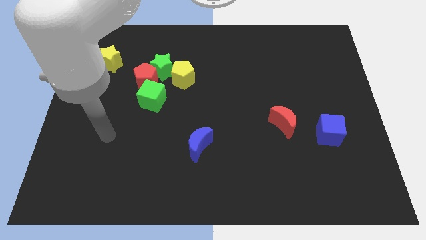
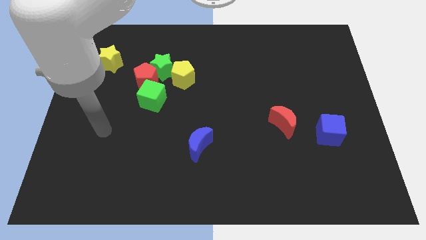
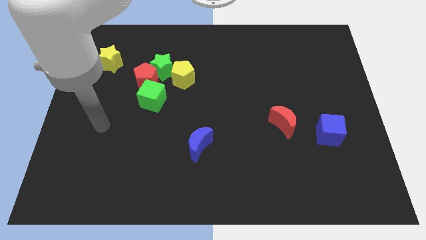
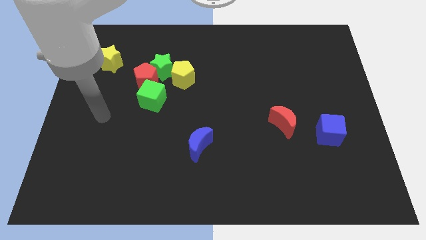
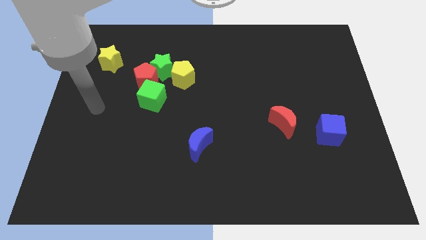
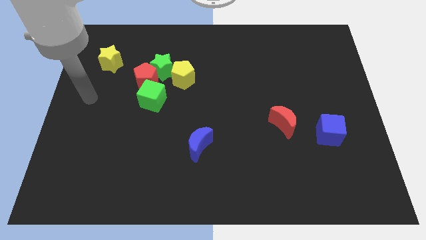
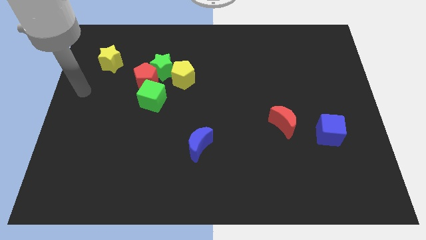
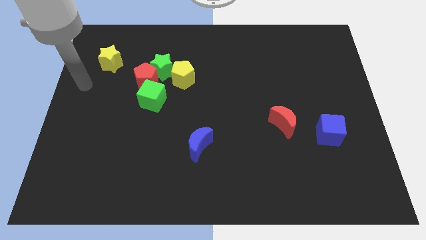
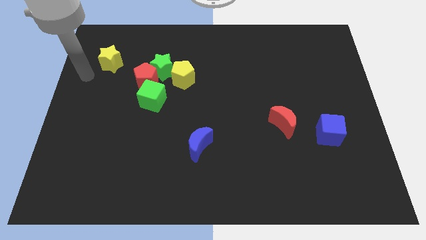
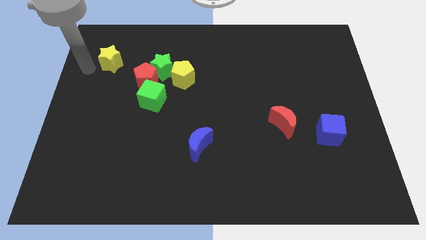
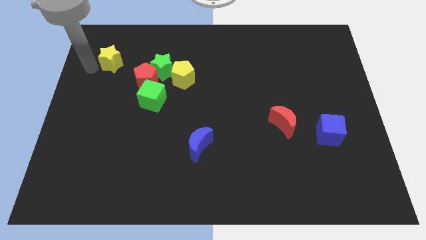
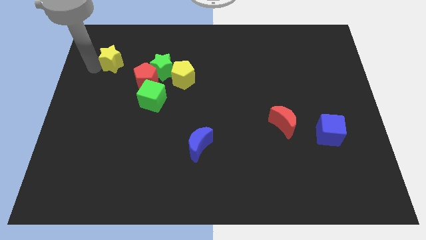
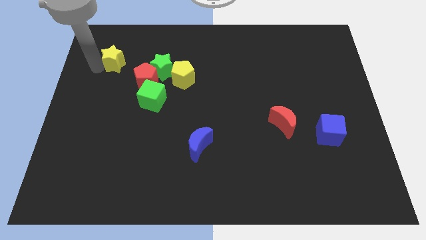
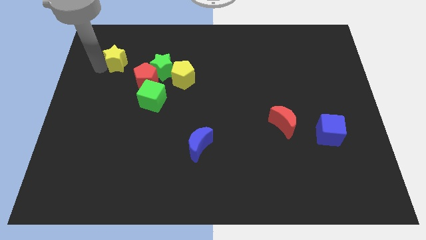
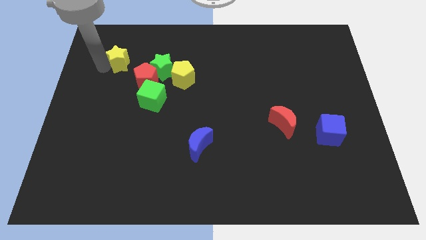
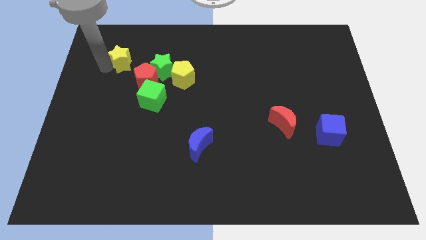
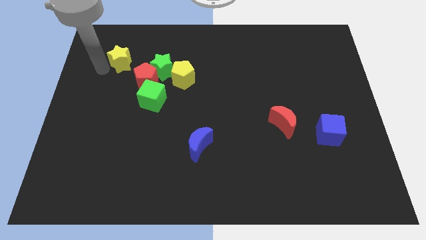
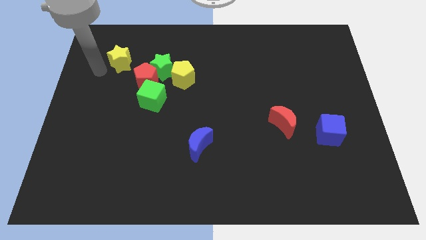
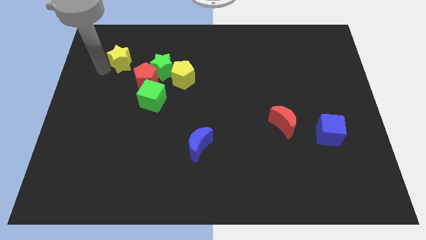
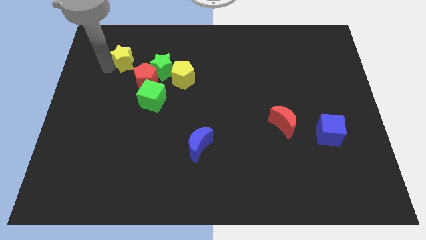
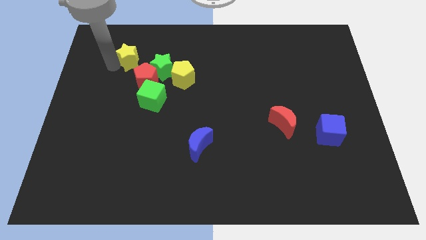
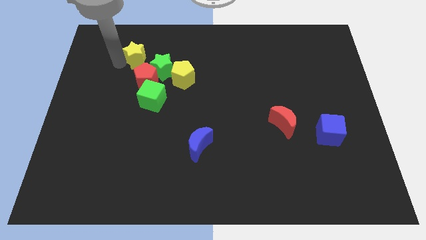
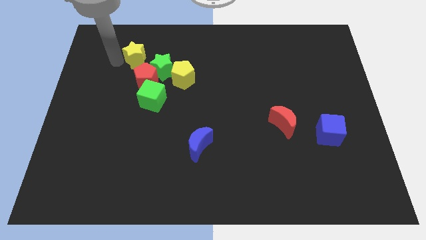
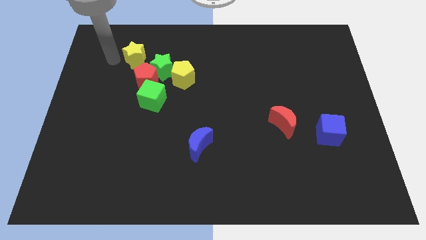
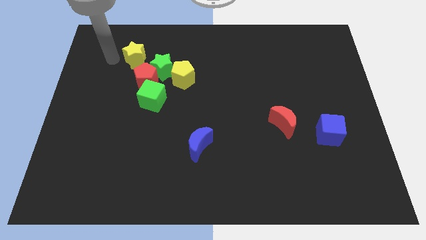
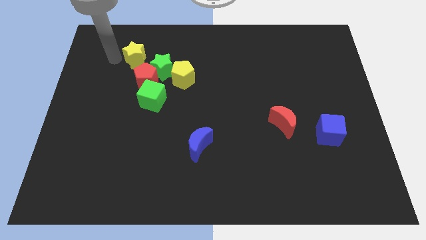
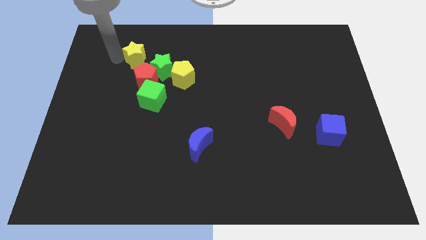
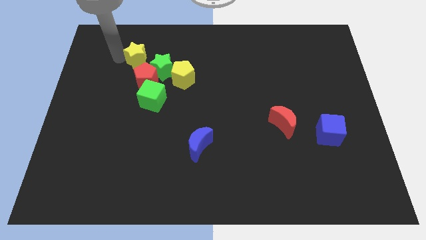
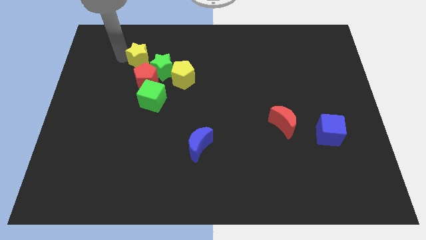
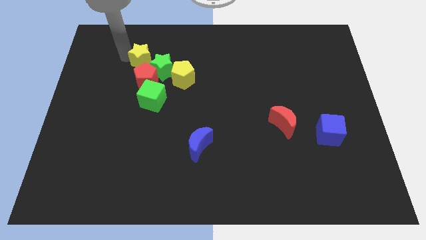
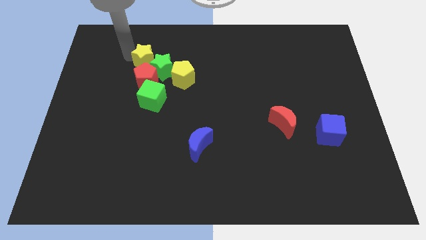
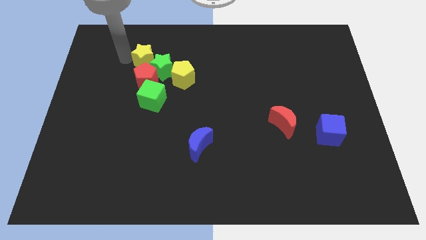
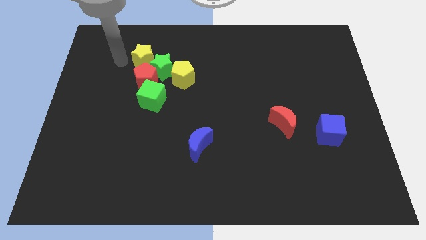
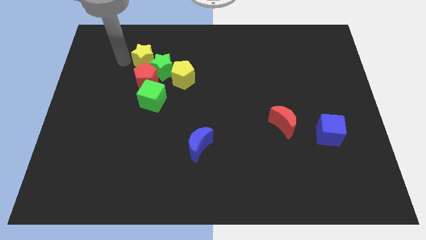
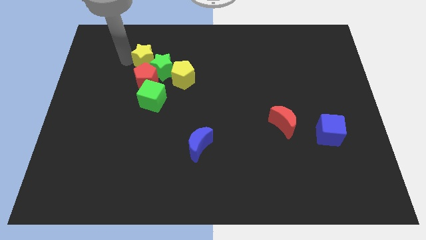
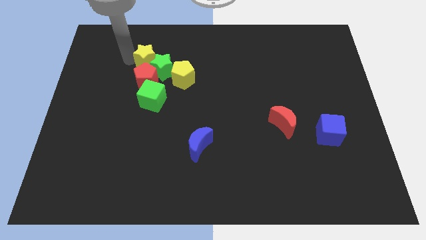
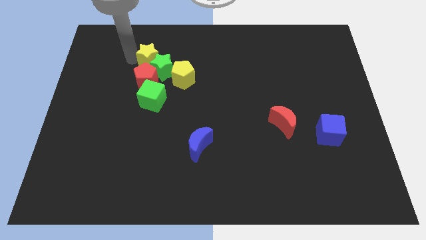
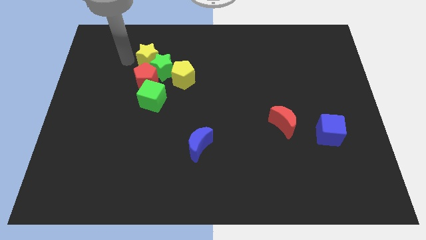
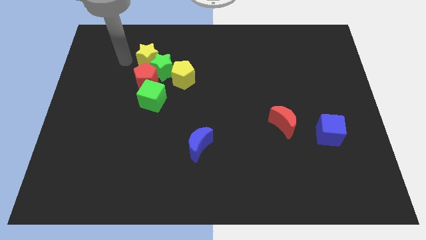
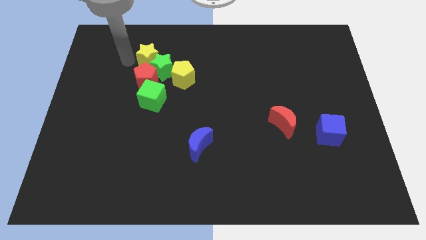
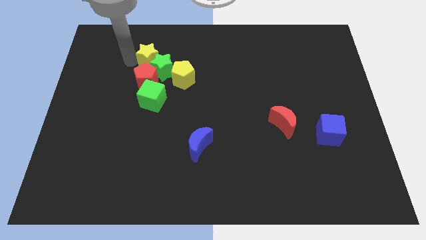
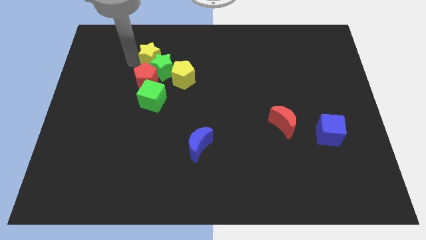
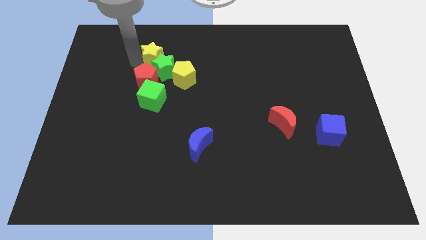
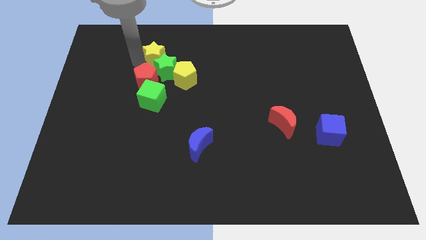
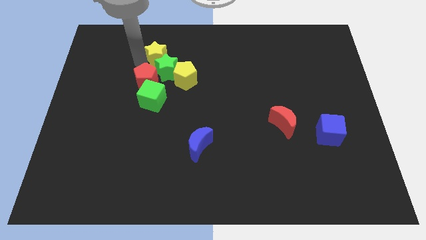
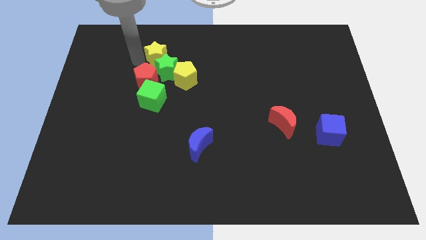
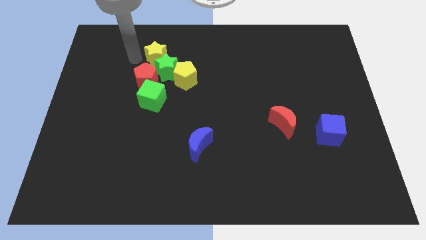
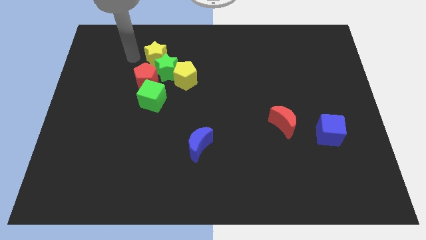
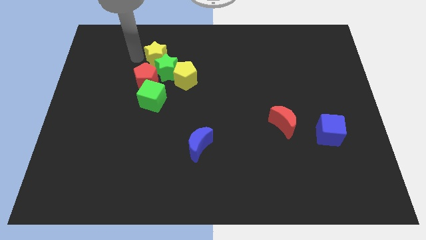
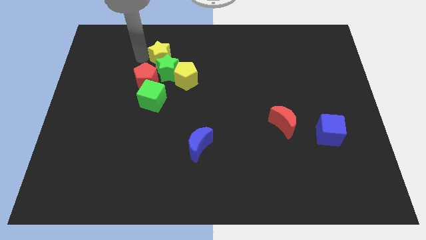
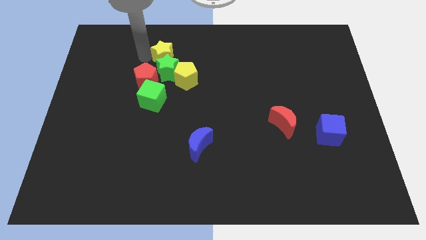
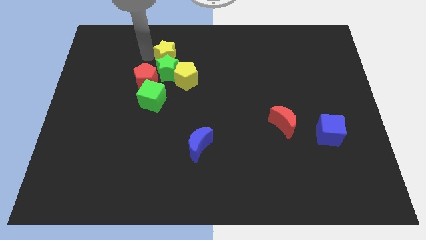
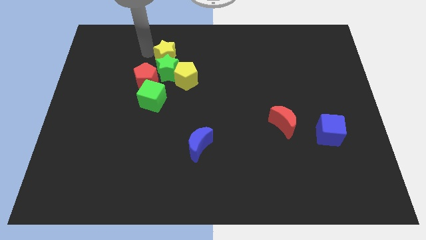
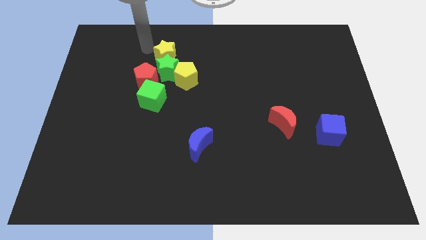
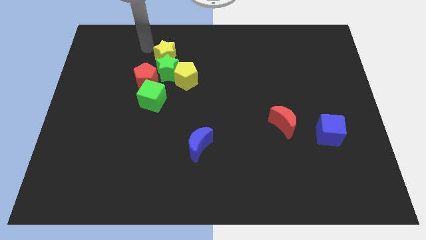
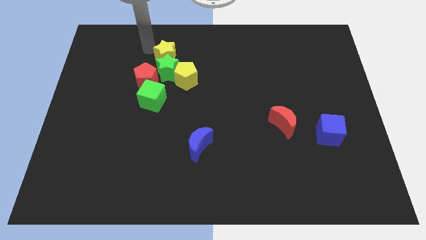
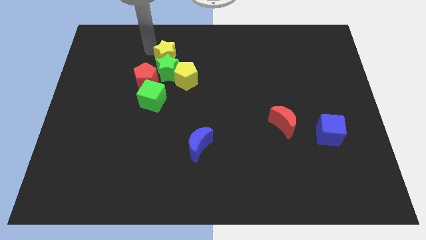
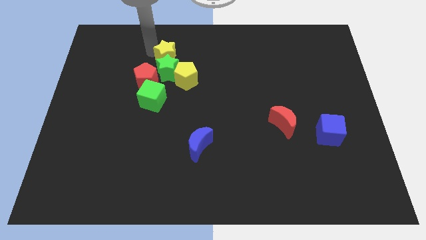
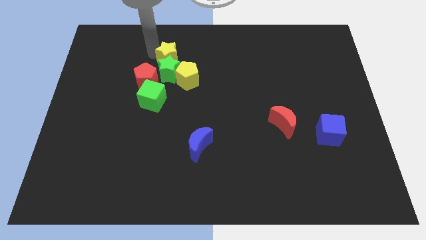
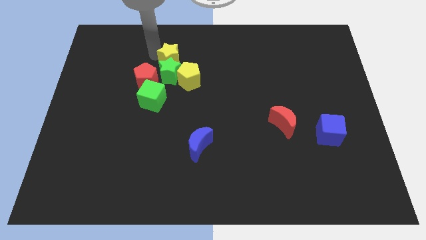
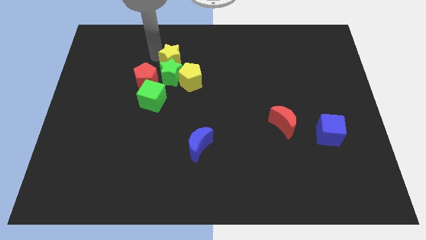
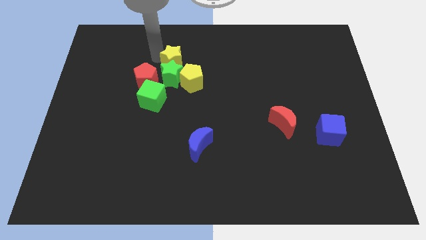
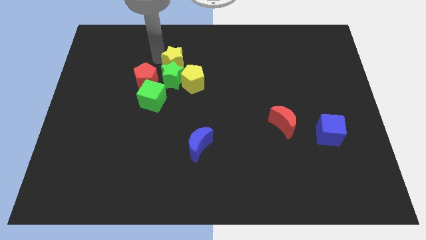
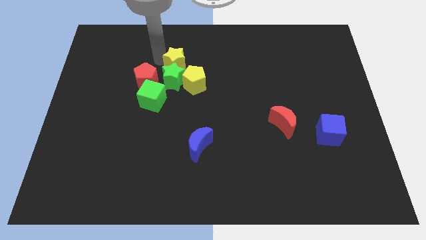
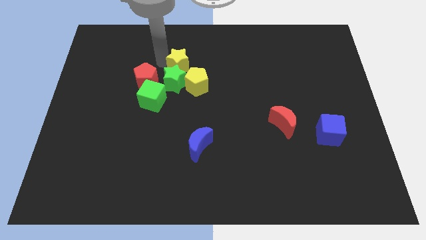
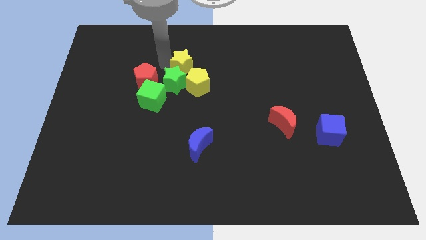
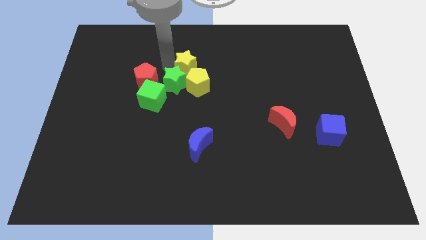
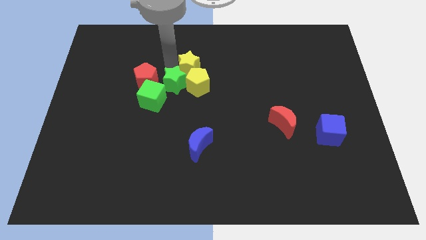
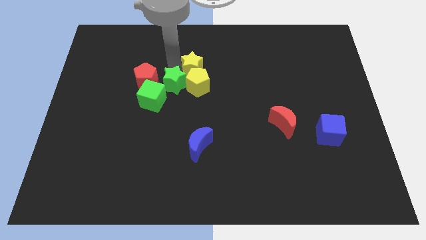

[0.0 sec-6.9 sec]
slide the yellow star to the right of the green star
